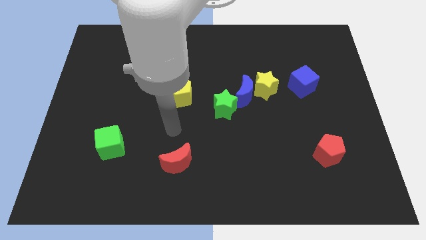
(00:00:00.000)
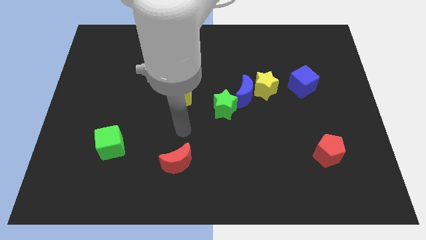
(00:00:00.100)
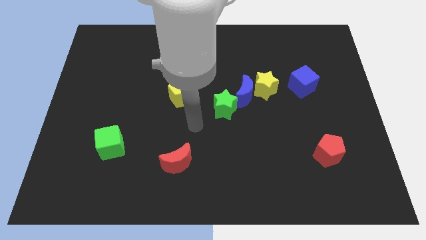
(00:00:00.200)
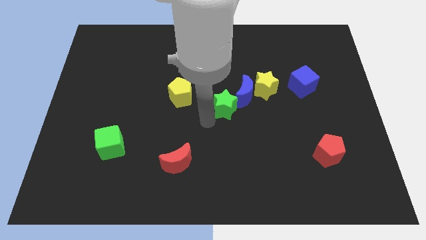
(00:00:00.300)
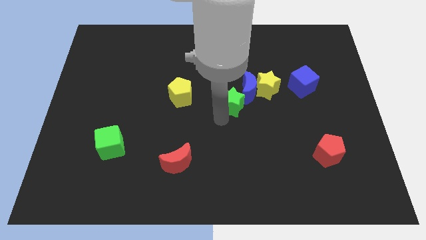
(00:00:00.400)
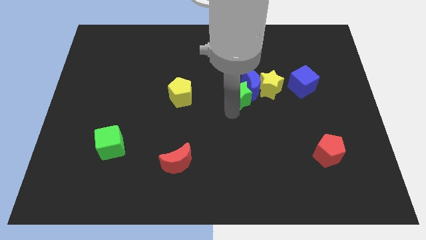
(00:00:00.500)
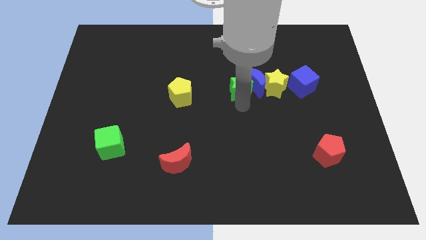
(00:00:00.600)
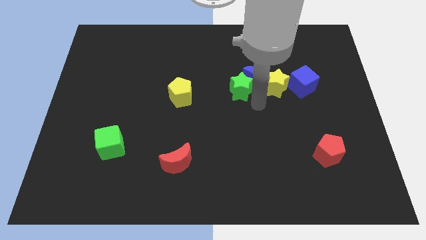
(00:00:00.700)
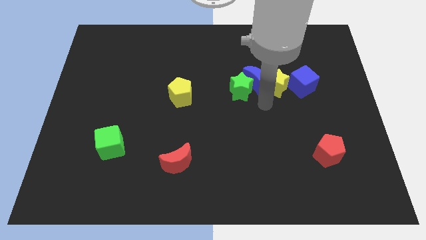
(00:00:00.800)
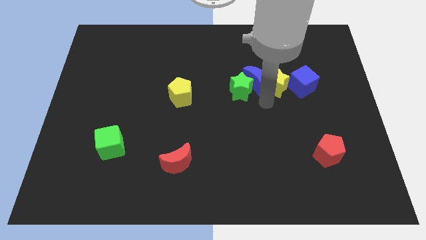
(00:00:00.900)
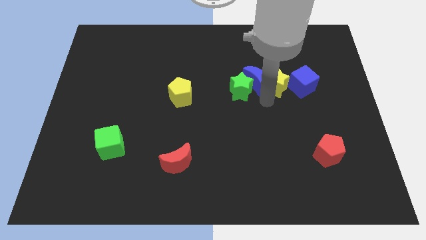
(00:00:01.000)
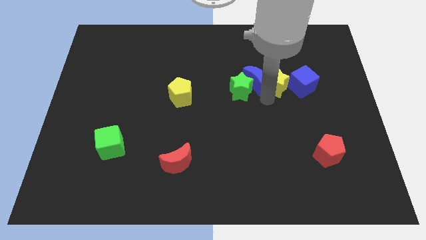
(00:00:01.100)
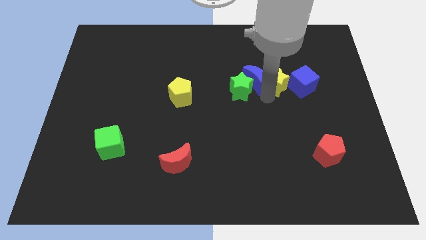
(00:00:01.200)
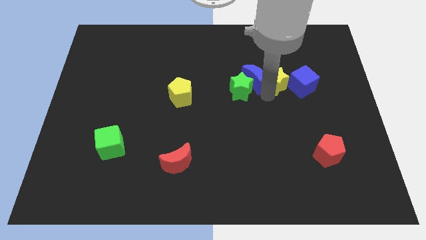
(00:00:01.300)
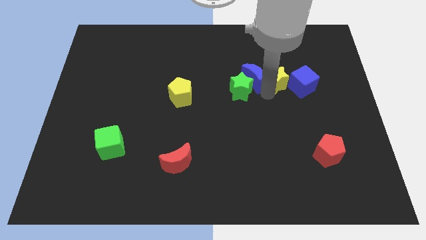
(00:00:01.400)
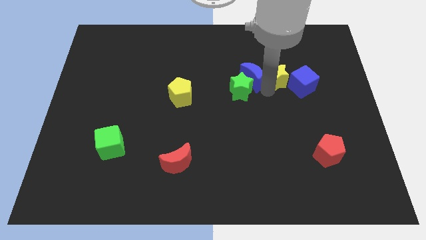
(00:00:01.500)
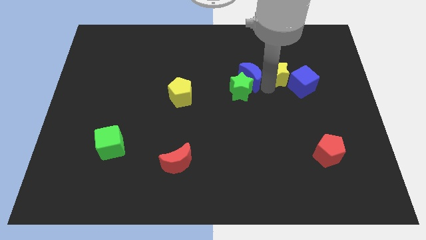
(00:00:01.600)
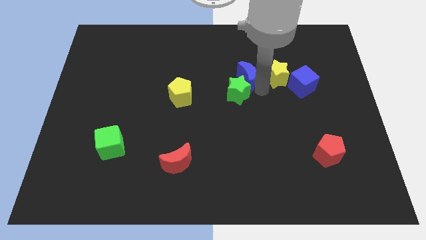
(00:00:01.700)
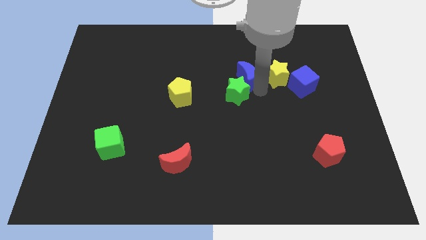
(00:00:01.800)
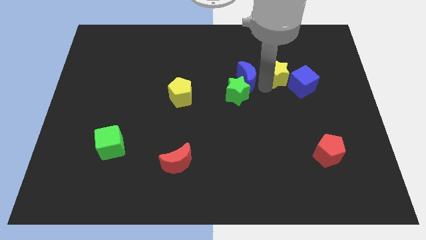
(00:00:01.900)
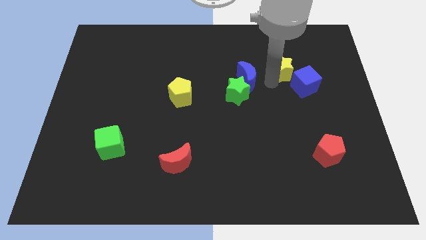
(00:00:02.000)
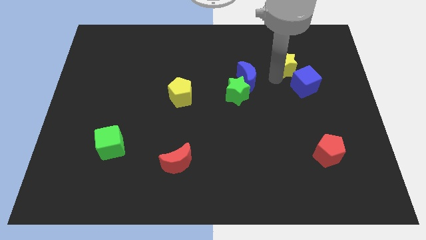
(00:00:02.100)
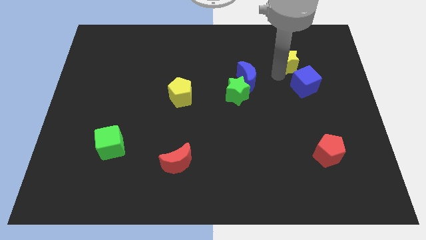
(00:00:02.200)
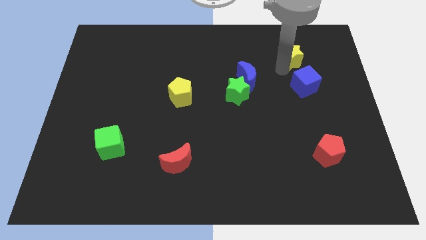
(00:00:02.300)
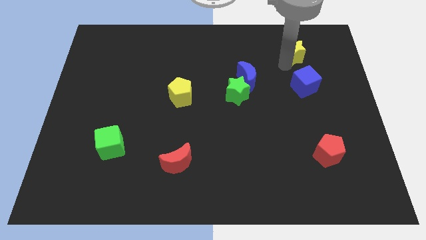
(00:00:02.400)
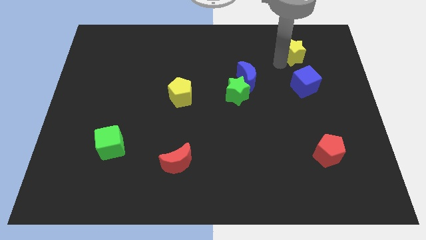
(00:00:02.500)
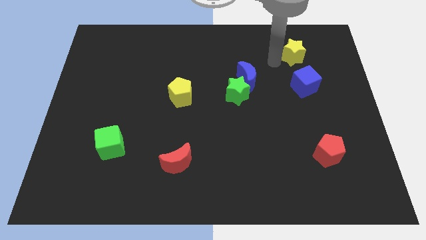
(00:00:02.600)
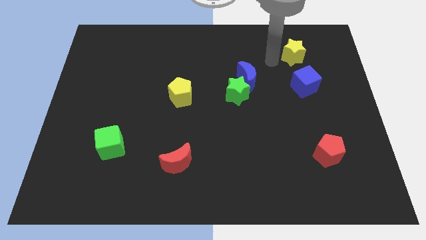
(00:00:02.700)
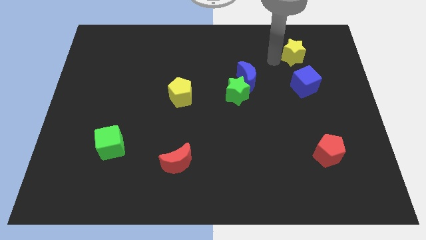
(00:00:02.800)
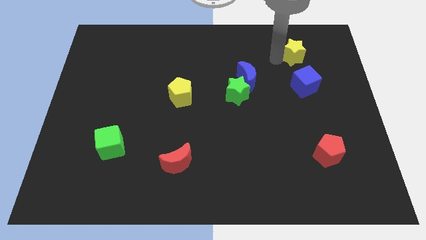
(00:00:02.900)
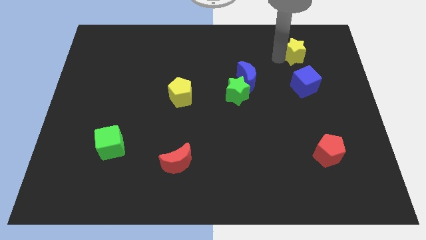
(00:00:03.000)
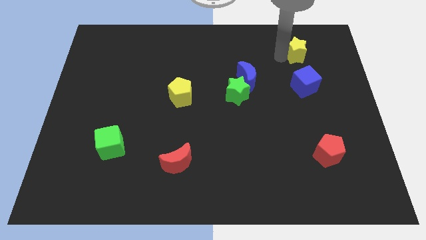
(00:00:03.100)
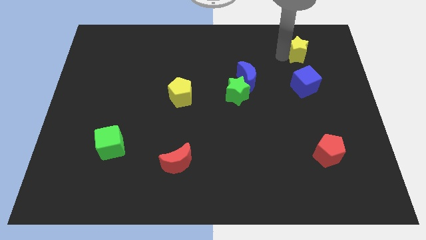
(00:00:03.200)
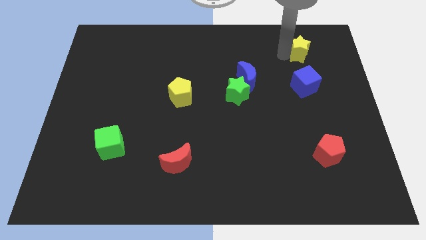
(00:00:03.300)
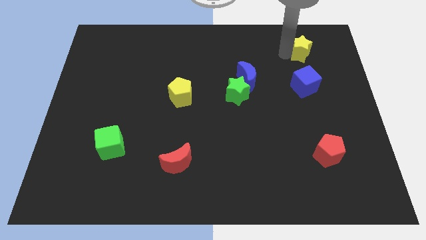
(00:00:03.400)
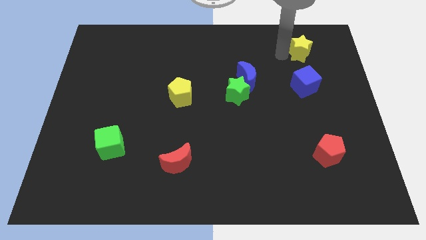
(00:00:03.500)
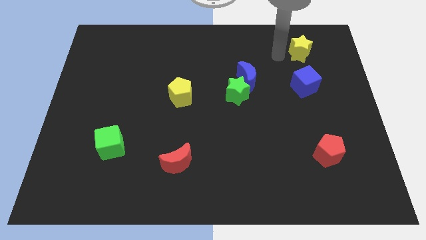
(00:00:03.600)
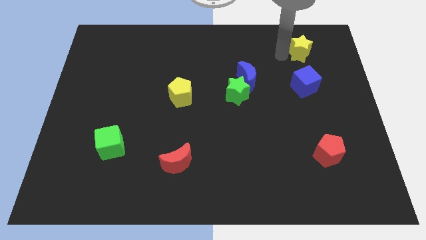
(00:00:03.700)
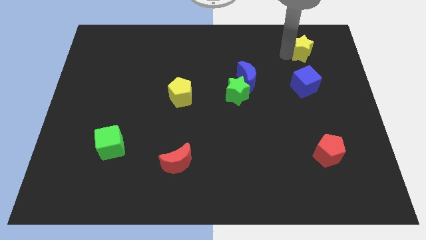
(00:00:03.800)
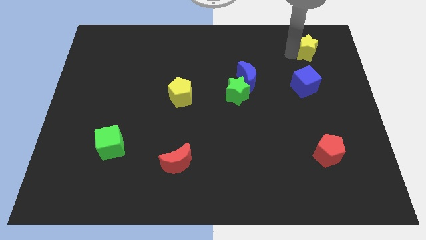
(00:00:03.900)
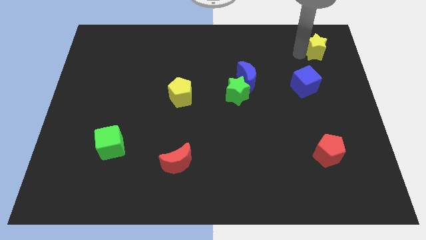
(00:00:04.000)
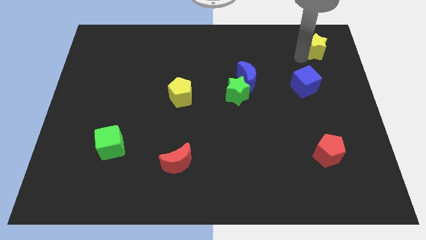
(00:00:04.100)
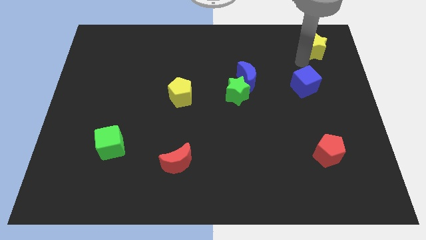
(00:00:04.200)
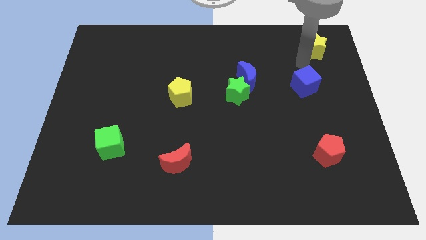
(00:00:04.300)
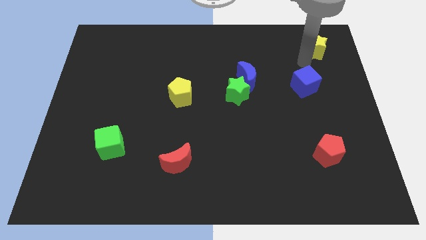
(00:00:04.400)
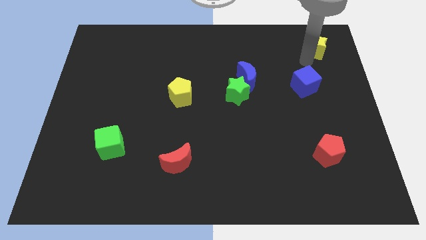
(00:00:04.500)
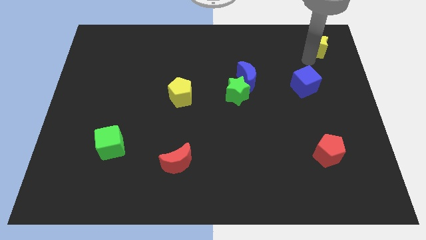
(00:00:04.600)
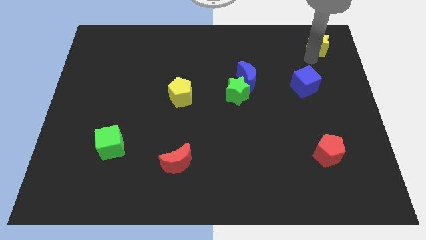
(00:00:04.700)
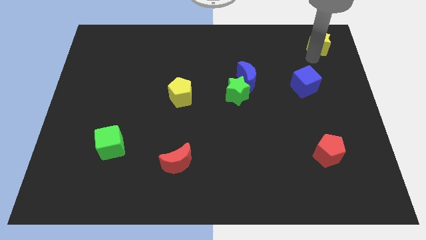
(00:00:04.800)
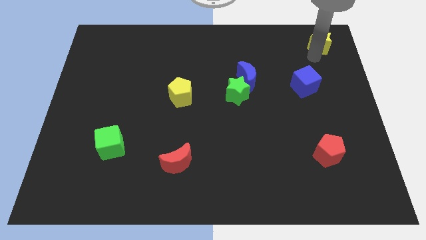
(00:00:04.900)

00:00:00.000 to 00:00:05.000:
move the yellow star to the upper right corner

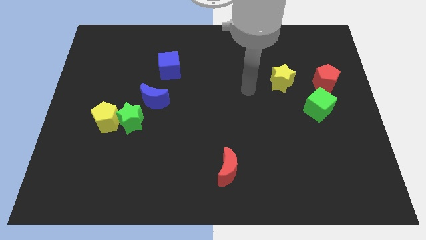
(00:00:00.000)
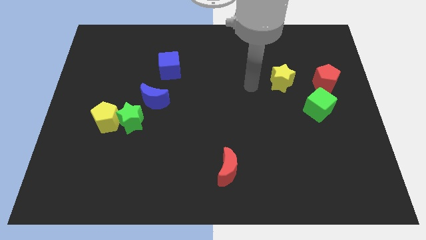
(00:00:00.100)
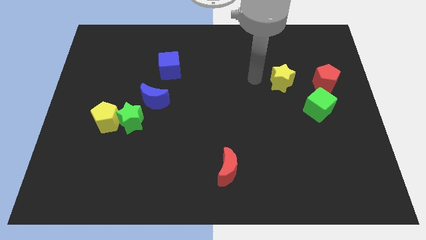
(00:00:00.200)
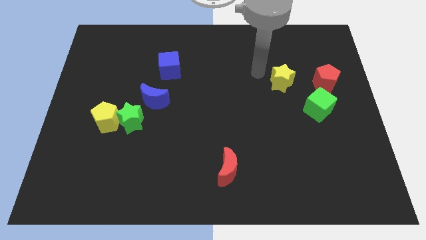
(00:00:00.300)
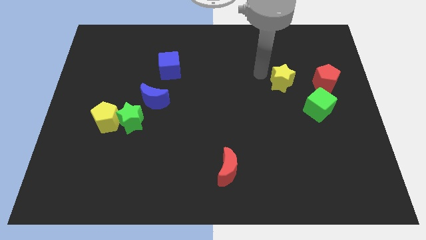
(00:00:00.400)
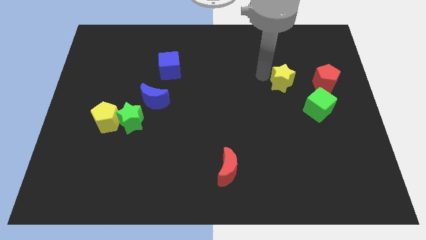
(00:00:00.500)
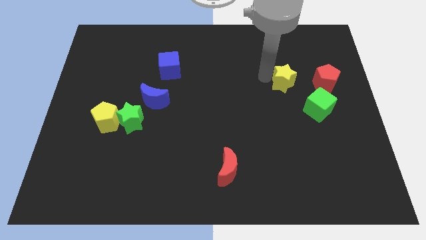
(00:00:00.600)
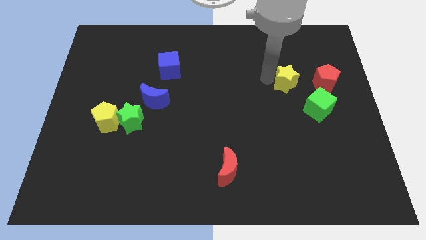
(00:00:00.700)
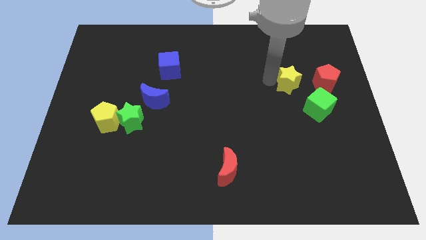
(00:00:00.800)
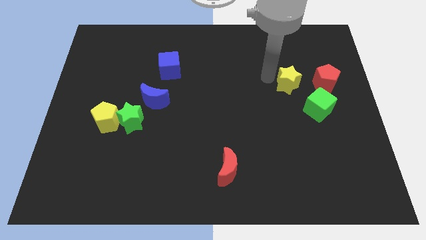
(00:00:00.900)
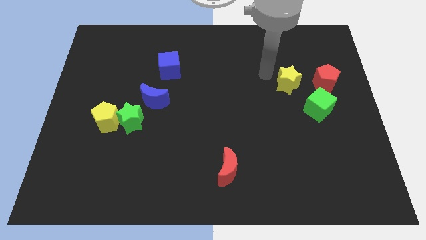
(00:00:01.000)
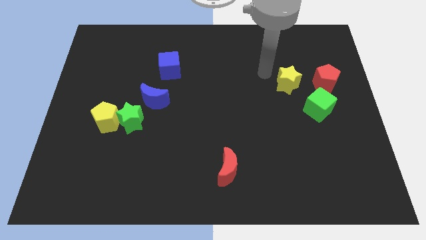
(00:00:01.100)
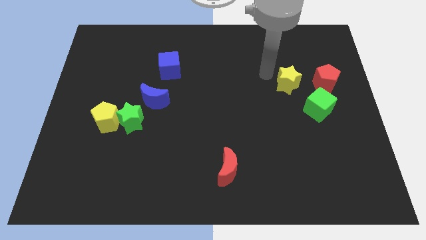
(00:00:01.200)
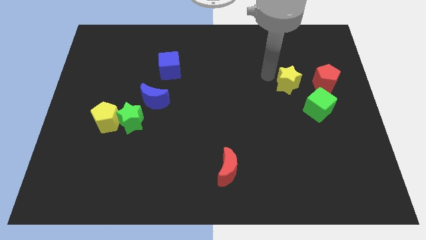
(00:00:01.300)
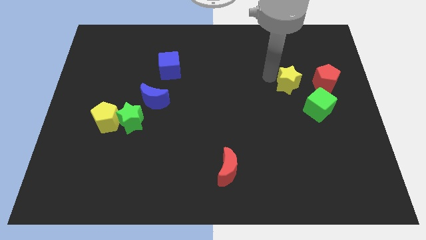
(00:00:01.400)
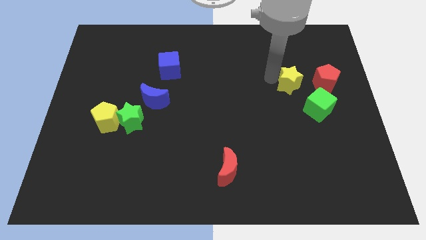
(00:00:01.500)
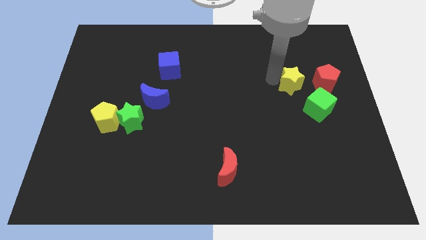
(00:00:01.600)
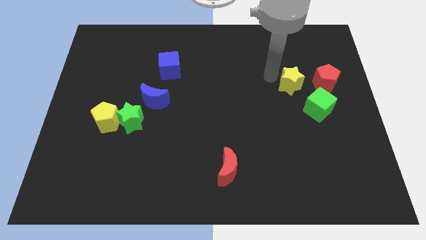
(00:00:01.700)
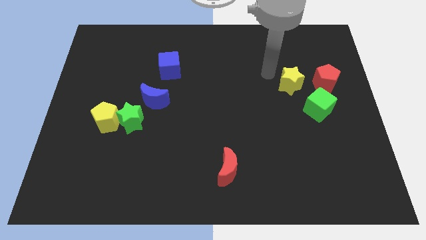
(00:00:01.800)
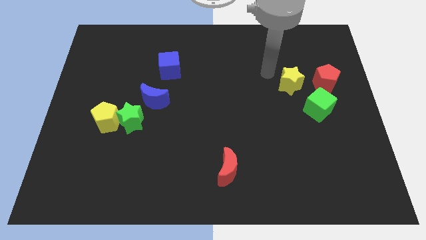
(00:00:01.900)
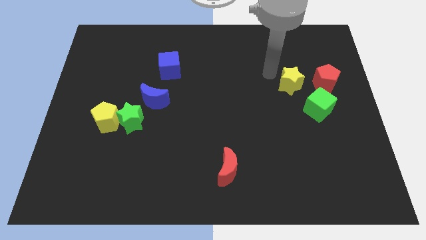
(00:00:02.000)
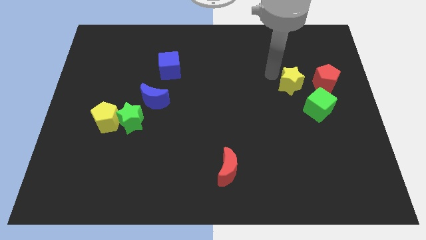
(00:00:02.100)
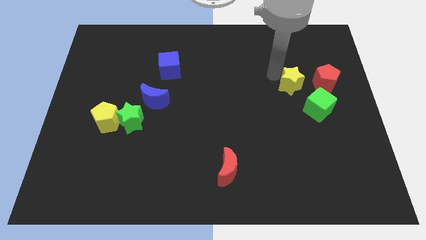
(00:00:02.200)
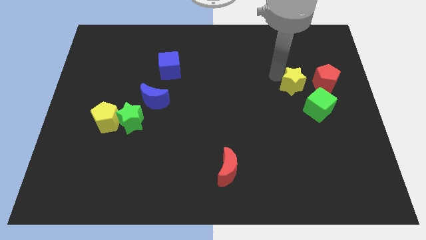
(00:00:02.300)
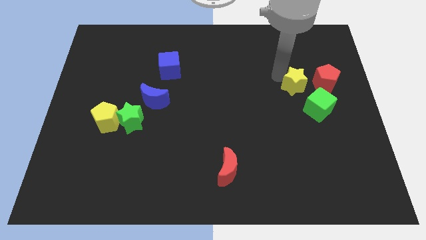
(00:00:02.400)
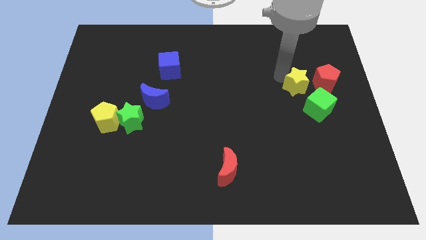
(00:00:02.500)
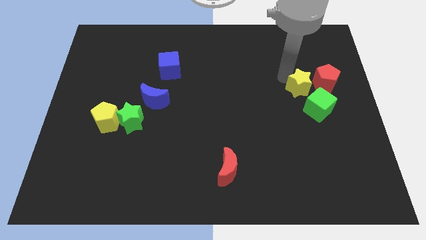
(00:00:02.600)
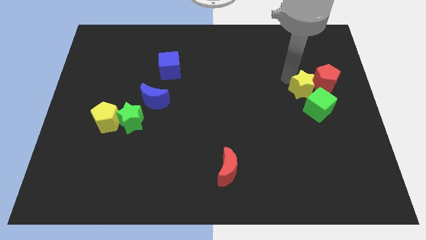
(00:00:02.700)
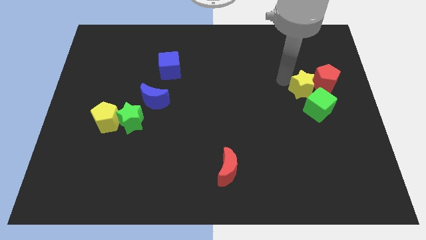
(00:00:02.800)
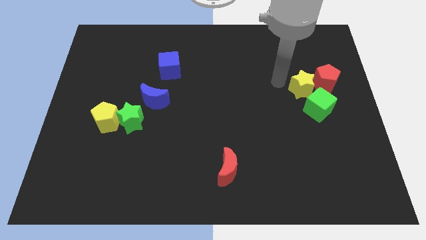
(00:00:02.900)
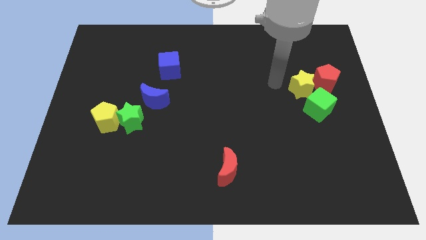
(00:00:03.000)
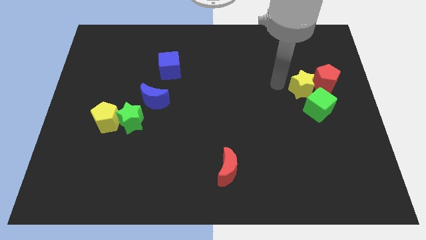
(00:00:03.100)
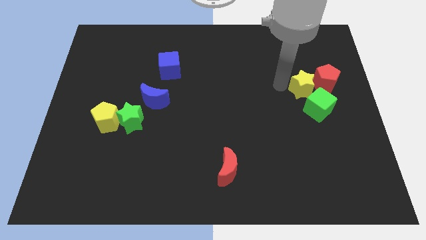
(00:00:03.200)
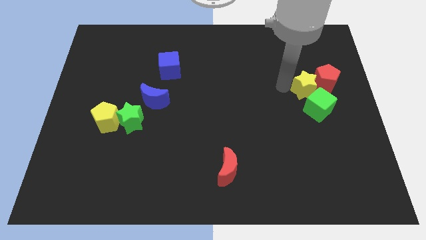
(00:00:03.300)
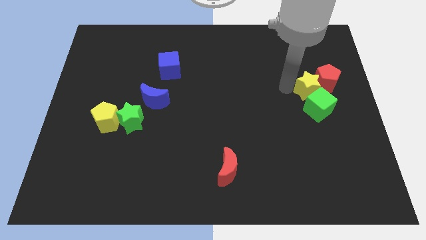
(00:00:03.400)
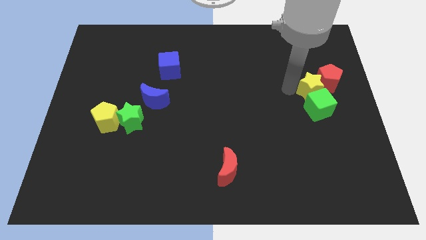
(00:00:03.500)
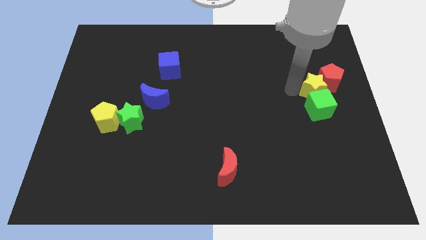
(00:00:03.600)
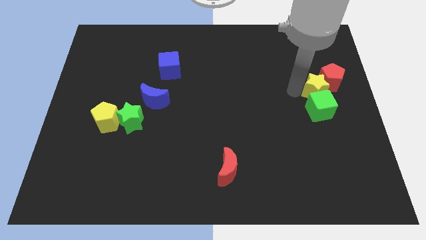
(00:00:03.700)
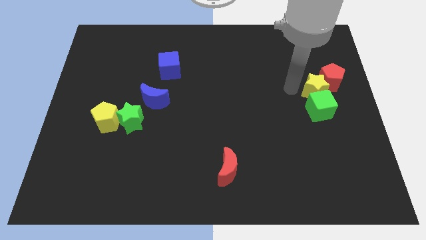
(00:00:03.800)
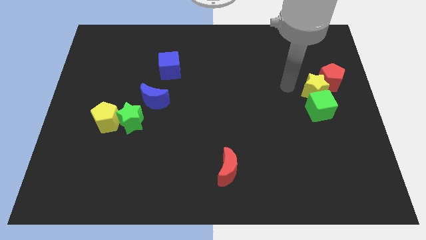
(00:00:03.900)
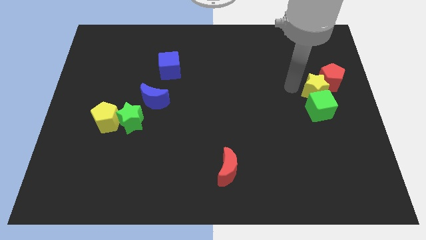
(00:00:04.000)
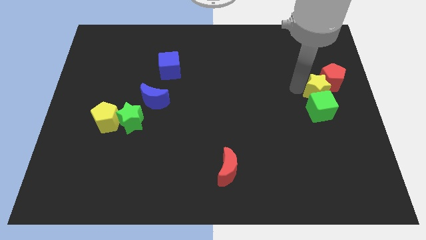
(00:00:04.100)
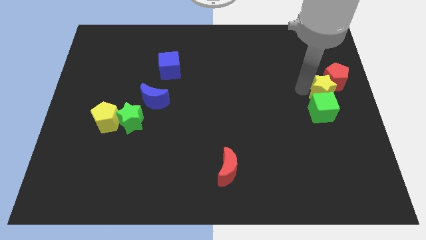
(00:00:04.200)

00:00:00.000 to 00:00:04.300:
slide the yellow star to the right side of the board
